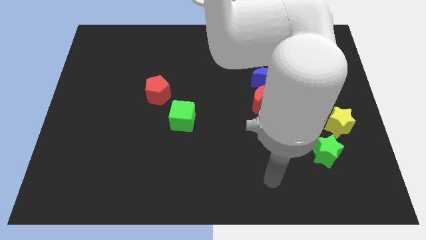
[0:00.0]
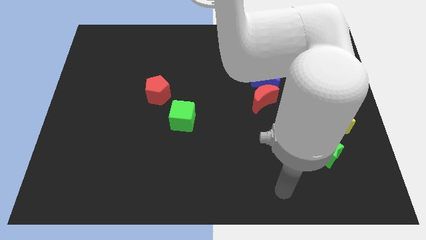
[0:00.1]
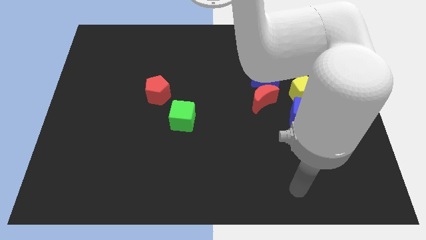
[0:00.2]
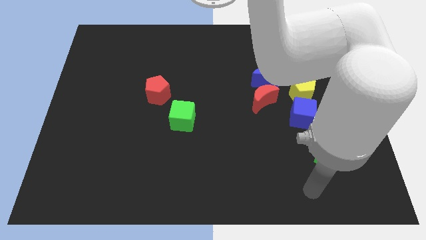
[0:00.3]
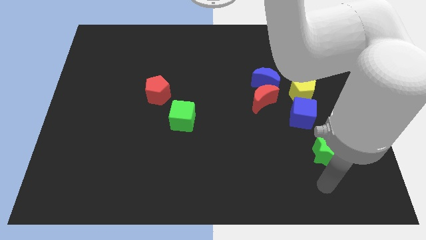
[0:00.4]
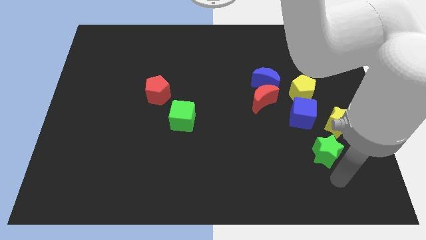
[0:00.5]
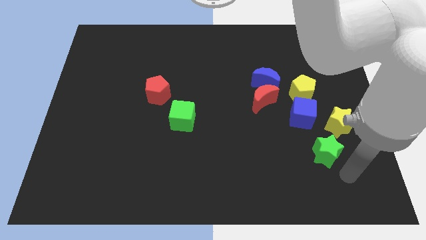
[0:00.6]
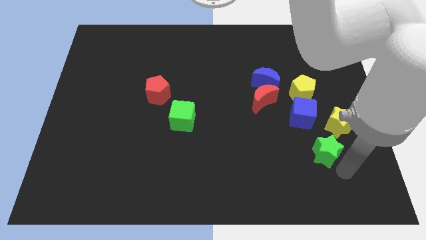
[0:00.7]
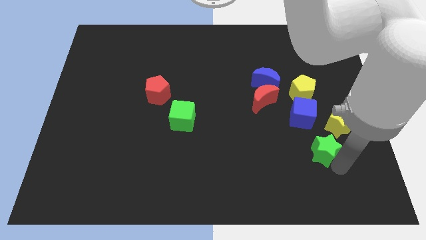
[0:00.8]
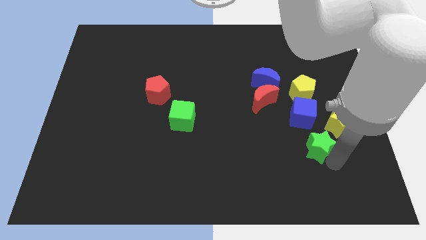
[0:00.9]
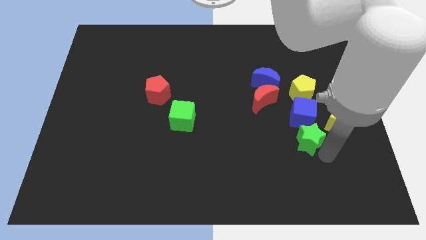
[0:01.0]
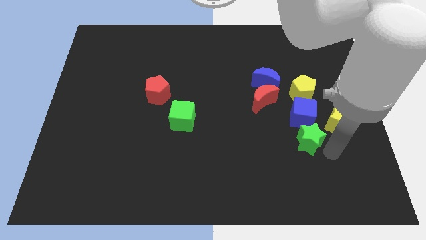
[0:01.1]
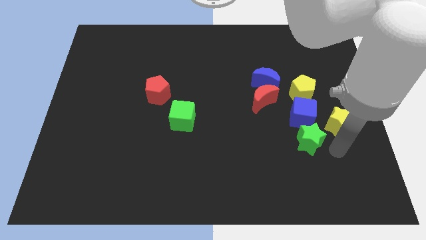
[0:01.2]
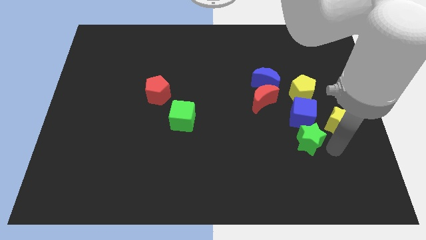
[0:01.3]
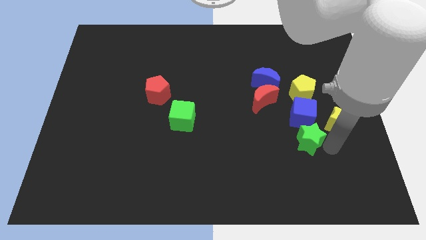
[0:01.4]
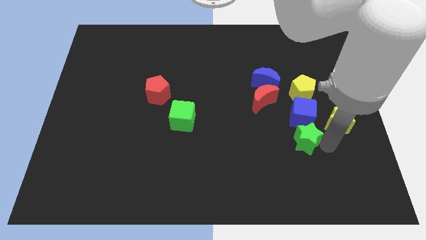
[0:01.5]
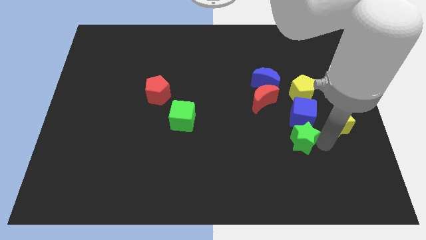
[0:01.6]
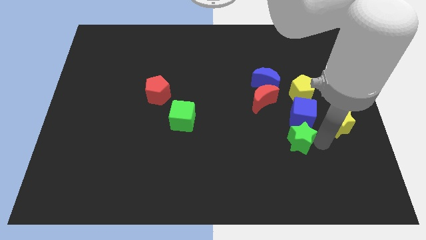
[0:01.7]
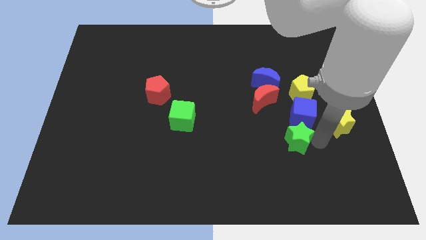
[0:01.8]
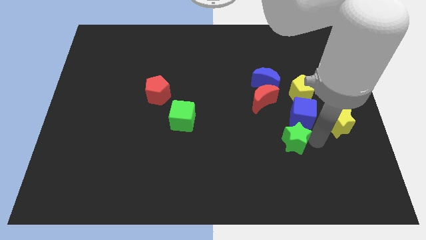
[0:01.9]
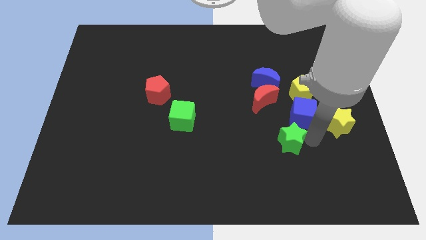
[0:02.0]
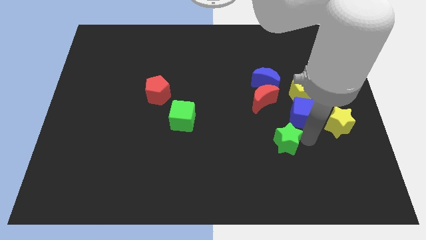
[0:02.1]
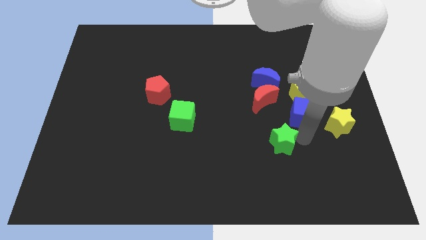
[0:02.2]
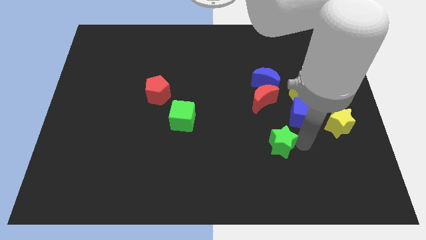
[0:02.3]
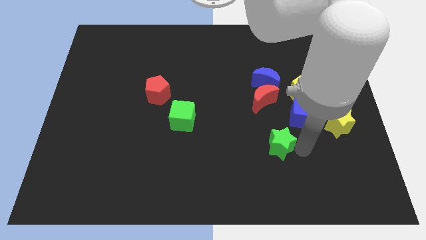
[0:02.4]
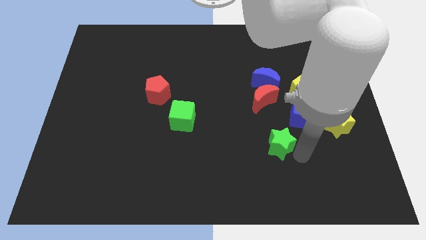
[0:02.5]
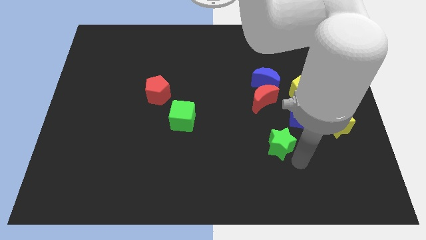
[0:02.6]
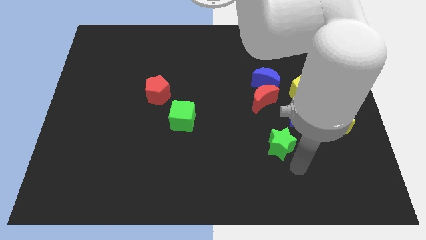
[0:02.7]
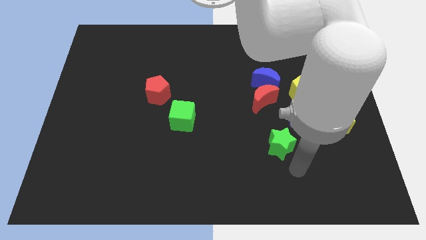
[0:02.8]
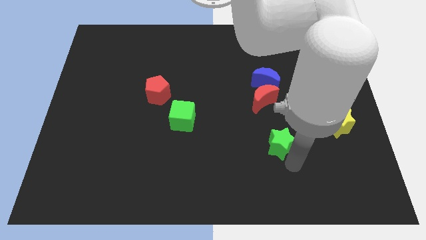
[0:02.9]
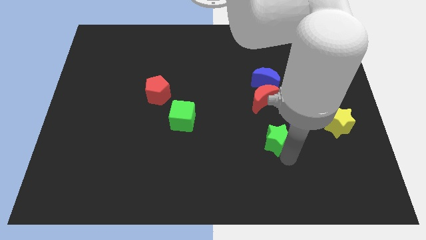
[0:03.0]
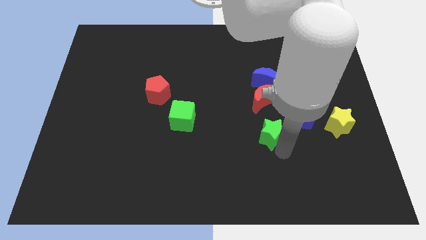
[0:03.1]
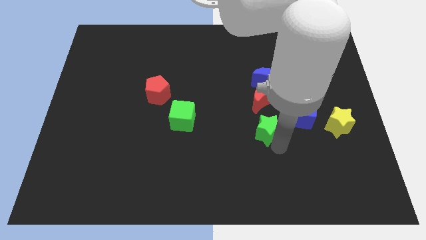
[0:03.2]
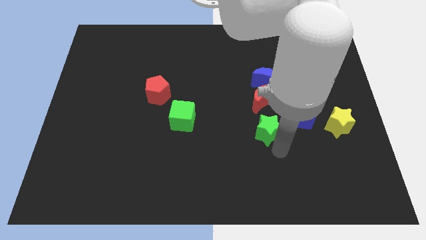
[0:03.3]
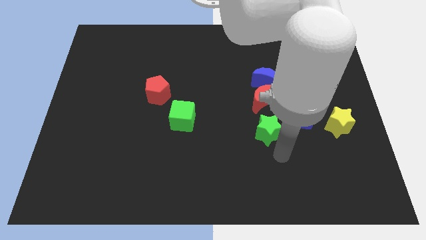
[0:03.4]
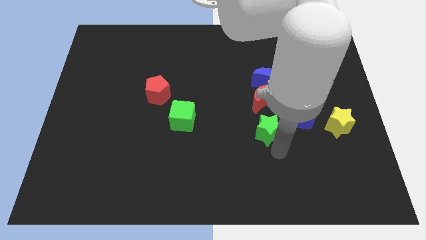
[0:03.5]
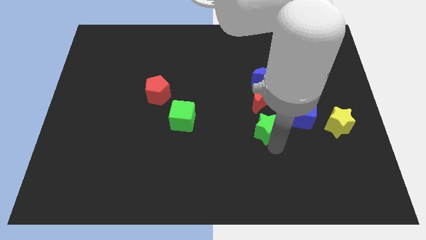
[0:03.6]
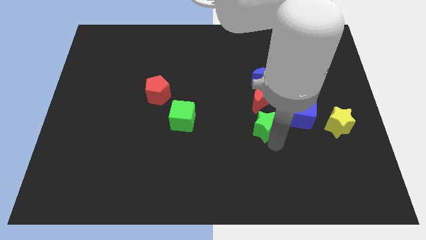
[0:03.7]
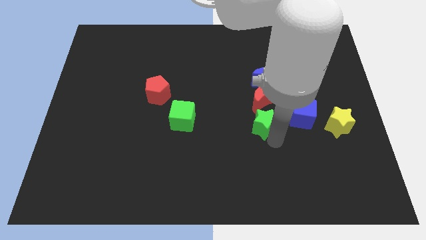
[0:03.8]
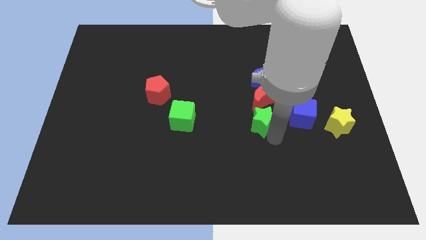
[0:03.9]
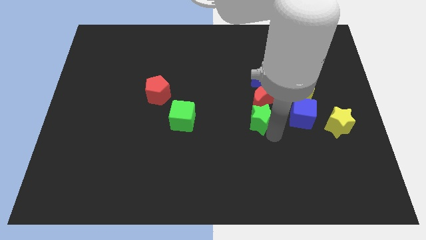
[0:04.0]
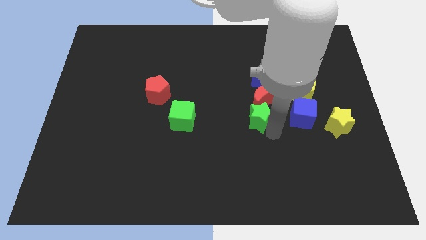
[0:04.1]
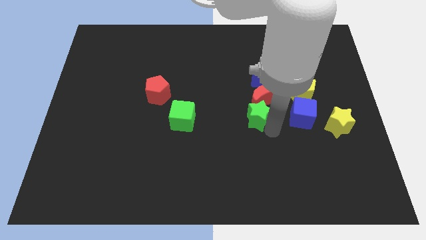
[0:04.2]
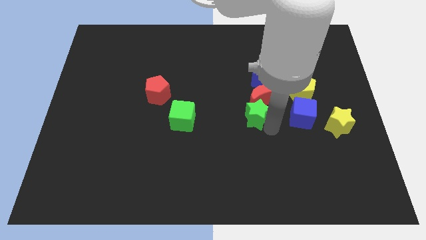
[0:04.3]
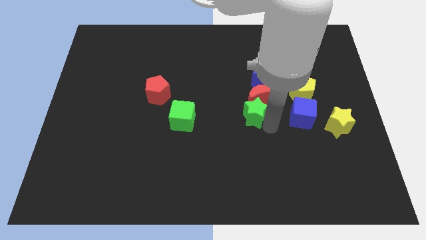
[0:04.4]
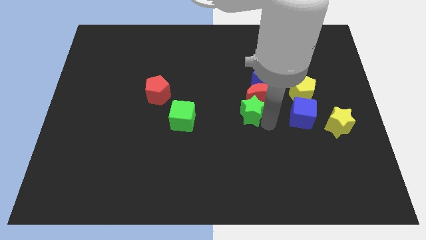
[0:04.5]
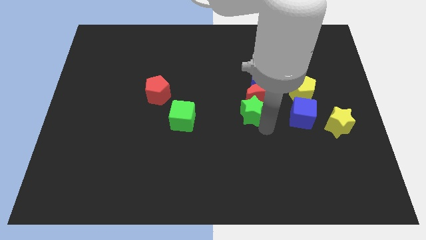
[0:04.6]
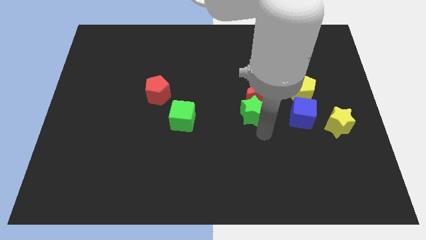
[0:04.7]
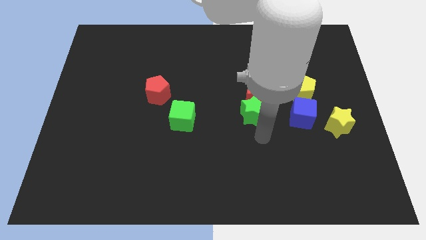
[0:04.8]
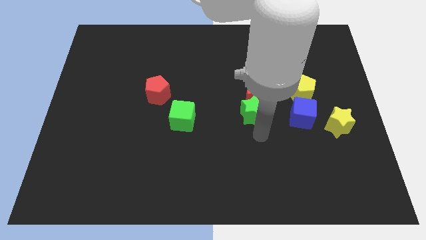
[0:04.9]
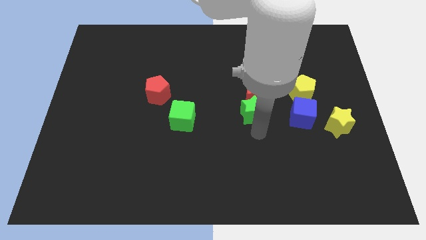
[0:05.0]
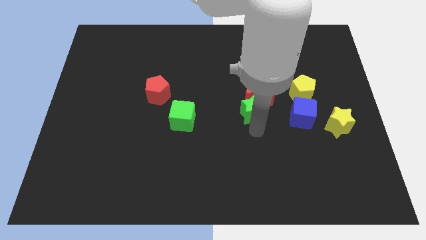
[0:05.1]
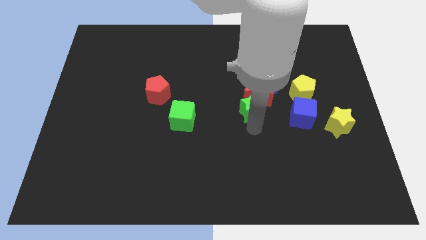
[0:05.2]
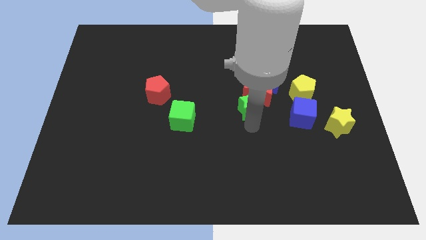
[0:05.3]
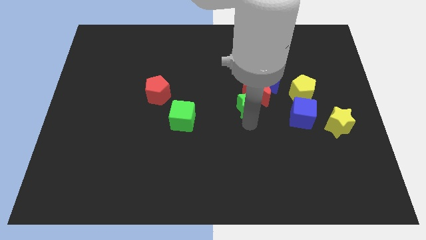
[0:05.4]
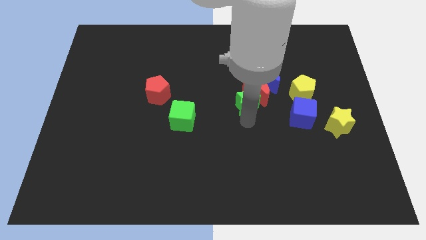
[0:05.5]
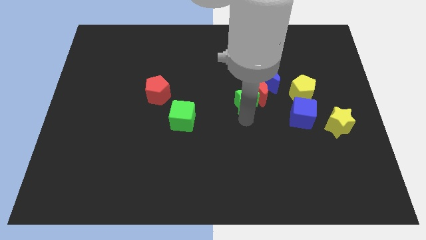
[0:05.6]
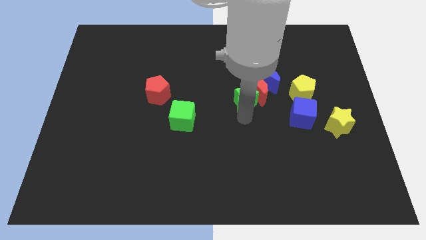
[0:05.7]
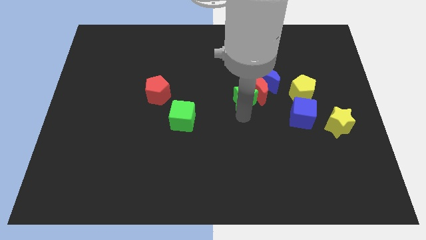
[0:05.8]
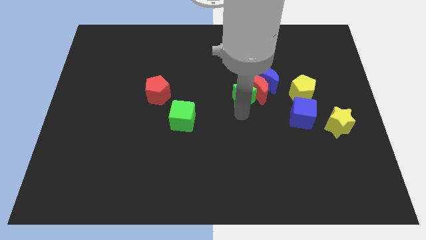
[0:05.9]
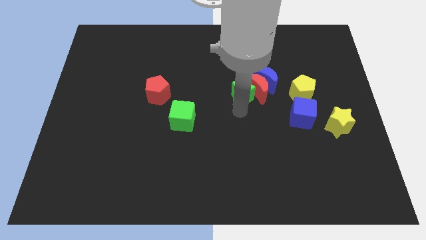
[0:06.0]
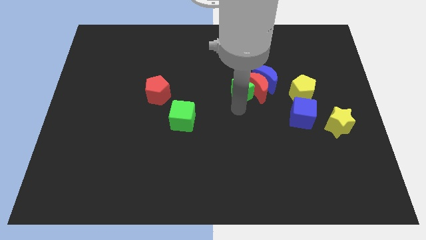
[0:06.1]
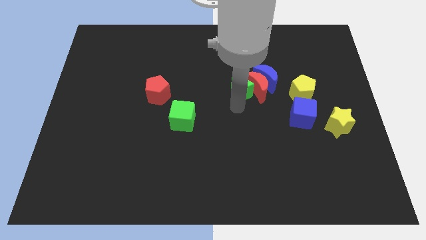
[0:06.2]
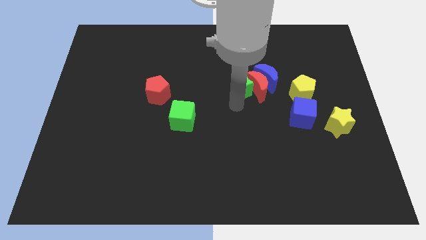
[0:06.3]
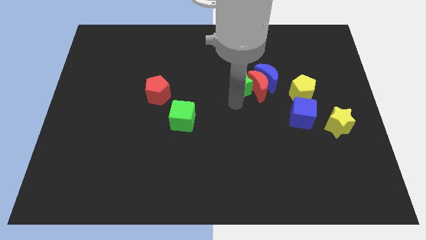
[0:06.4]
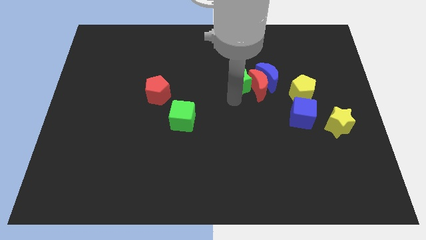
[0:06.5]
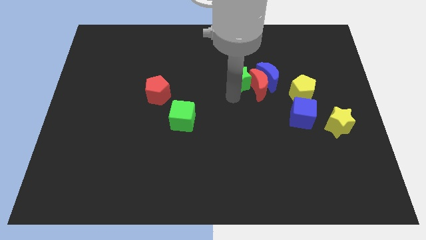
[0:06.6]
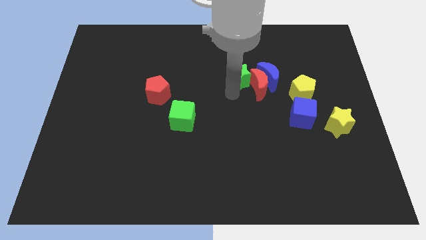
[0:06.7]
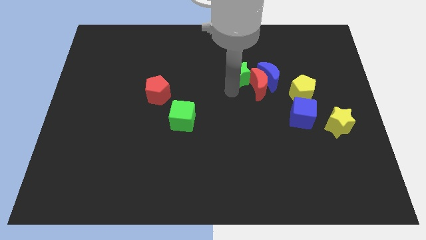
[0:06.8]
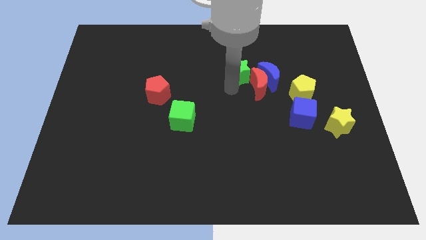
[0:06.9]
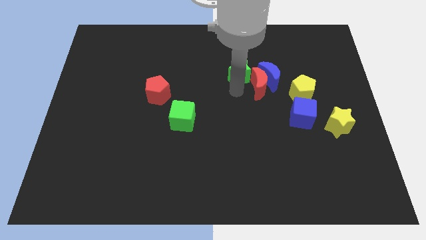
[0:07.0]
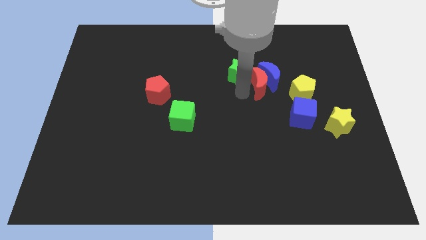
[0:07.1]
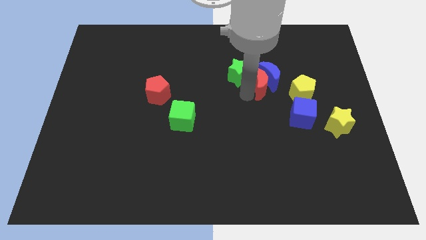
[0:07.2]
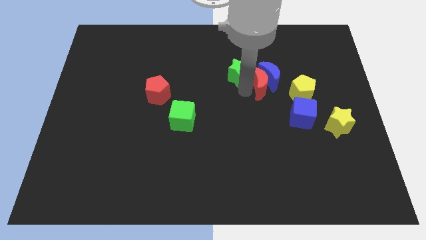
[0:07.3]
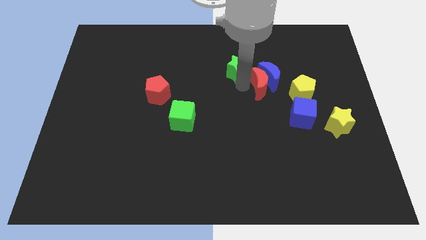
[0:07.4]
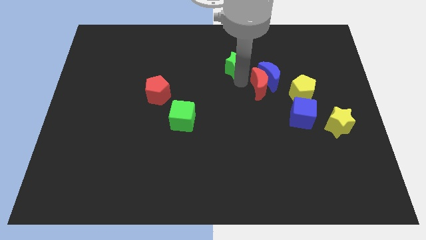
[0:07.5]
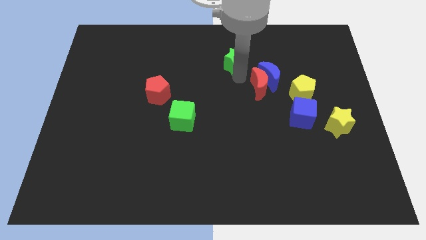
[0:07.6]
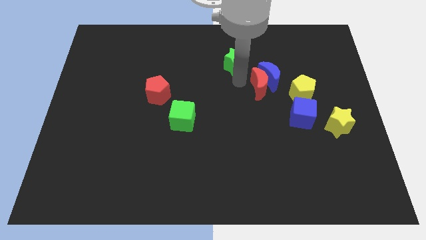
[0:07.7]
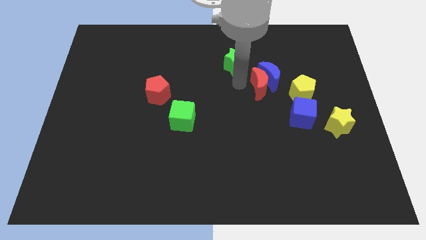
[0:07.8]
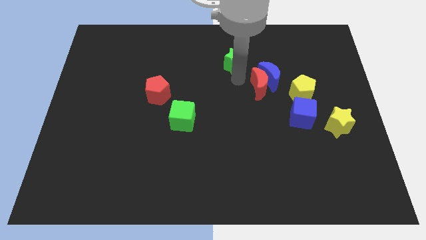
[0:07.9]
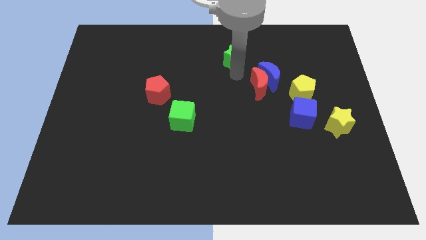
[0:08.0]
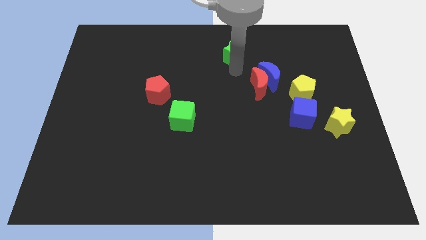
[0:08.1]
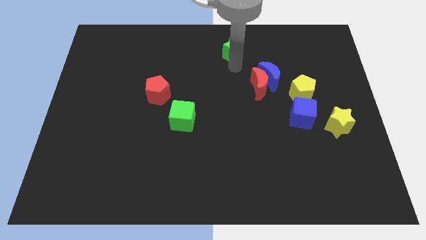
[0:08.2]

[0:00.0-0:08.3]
push the green star to the towards your base
